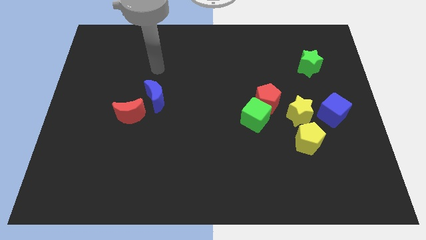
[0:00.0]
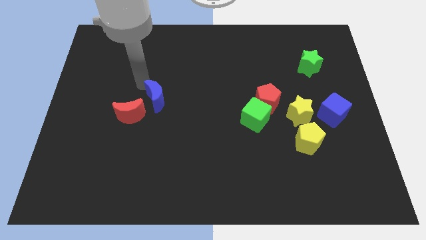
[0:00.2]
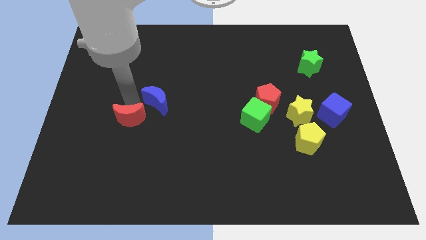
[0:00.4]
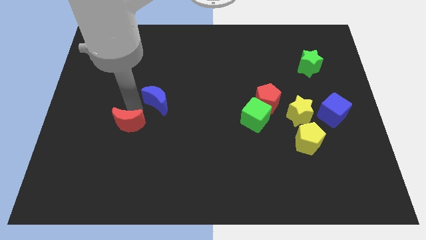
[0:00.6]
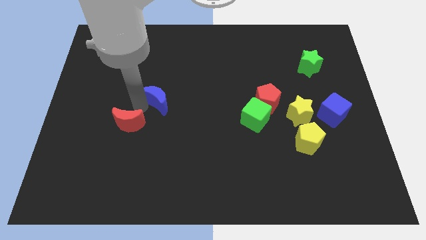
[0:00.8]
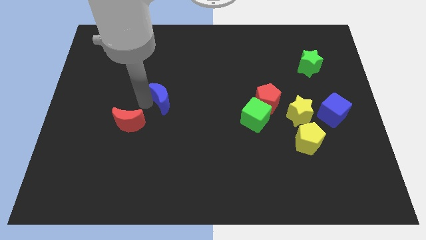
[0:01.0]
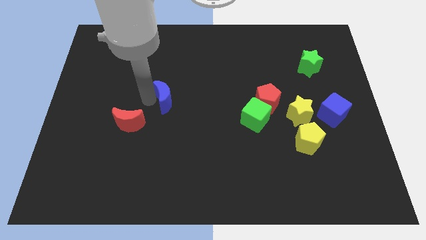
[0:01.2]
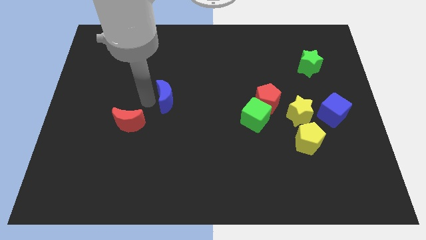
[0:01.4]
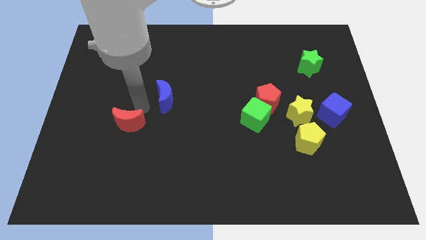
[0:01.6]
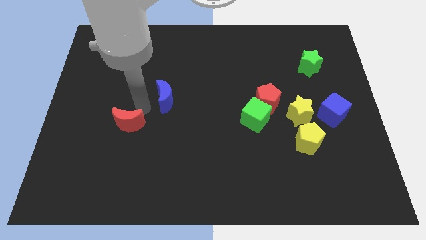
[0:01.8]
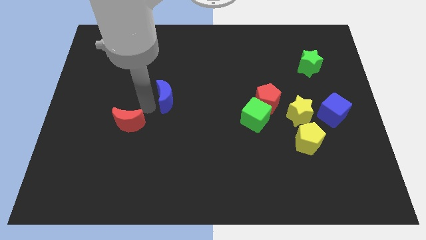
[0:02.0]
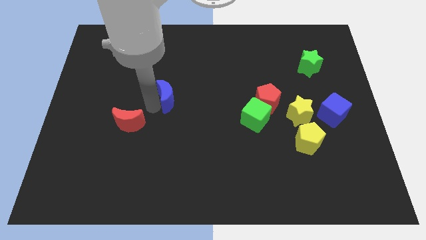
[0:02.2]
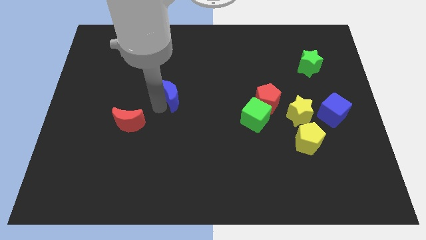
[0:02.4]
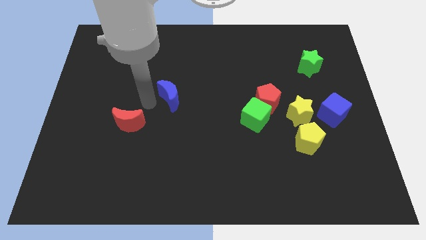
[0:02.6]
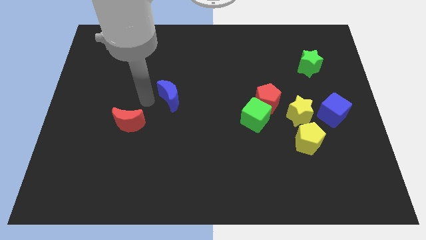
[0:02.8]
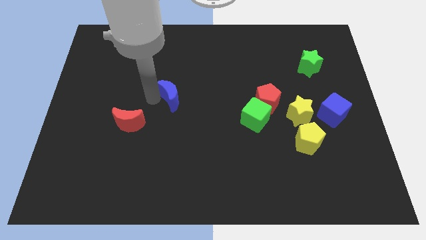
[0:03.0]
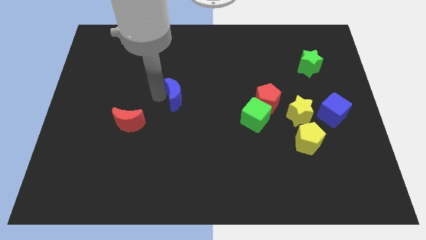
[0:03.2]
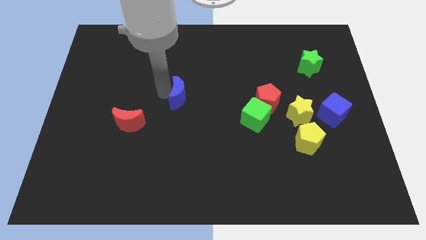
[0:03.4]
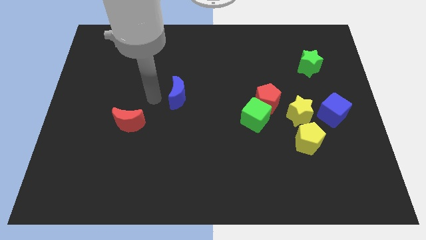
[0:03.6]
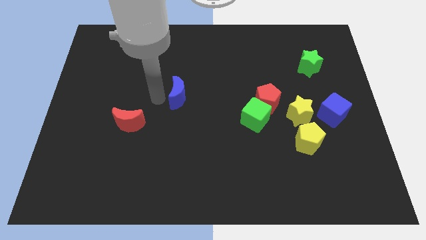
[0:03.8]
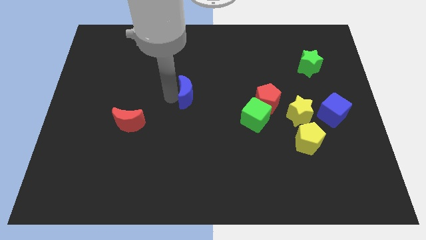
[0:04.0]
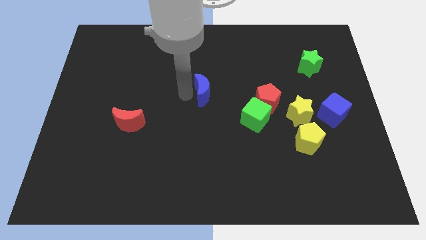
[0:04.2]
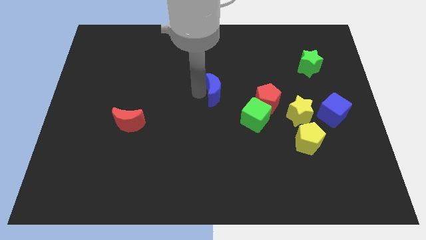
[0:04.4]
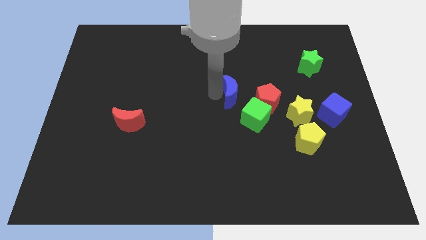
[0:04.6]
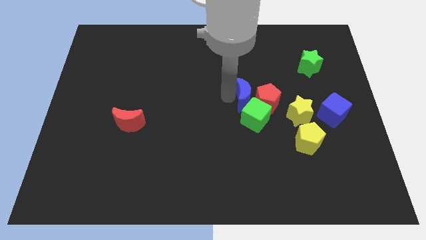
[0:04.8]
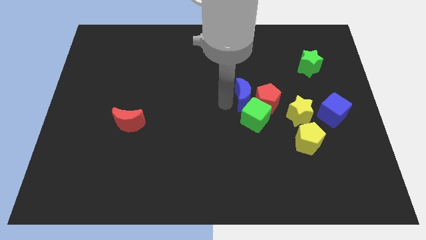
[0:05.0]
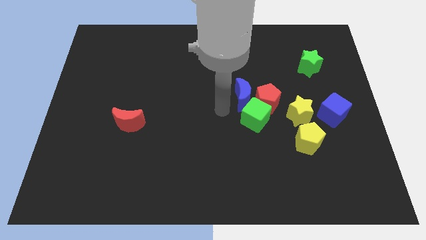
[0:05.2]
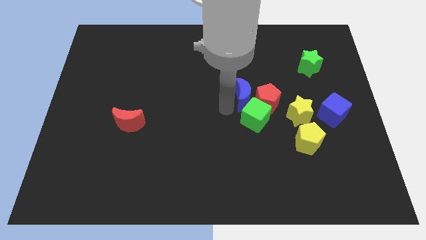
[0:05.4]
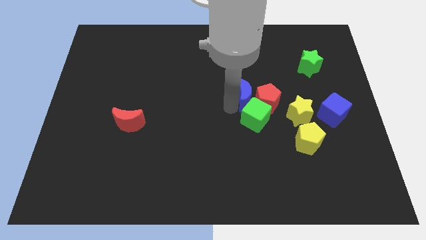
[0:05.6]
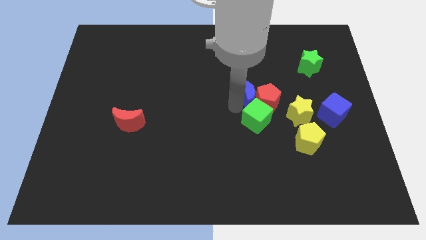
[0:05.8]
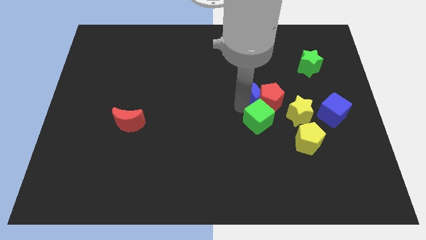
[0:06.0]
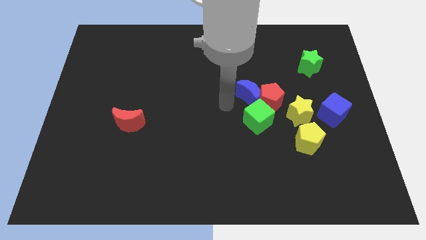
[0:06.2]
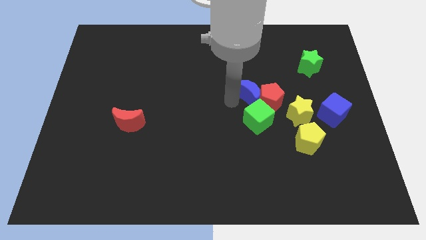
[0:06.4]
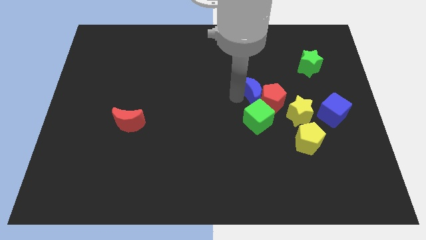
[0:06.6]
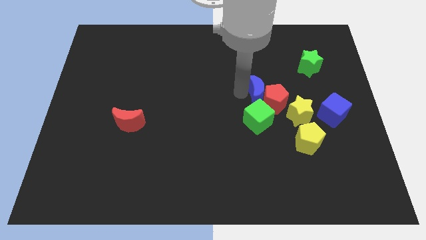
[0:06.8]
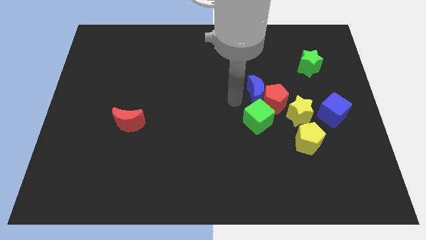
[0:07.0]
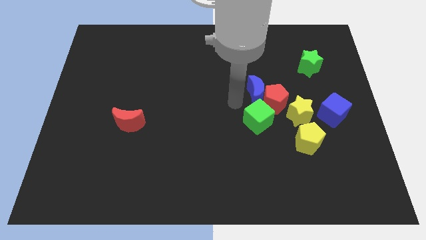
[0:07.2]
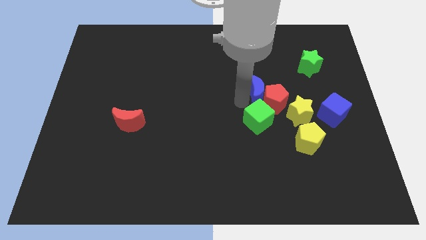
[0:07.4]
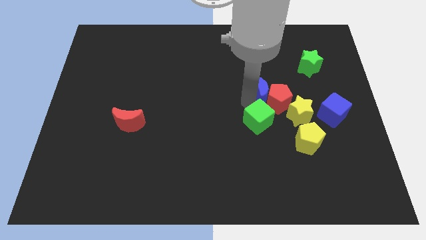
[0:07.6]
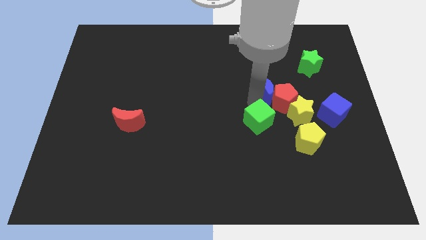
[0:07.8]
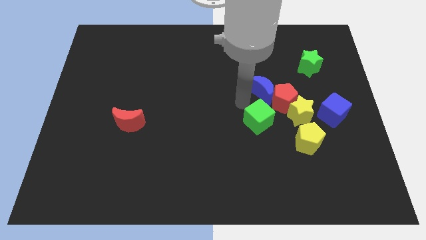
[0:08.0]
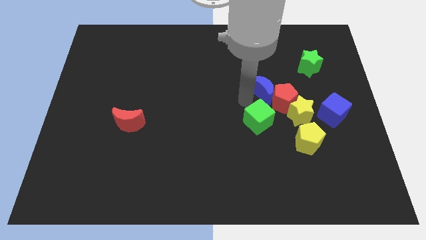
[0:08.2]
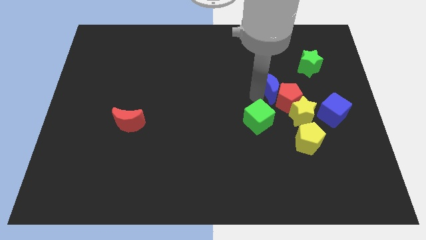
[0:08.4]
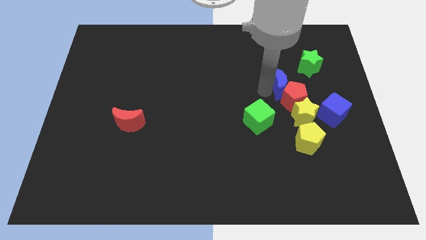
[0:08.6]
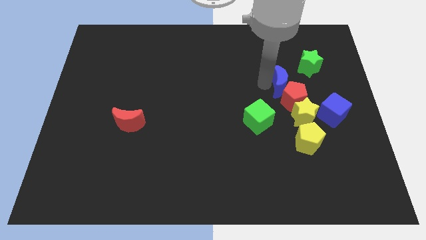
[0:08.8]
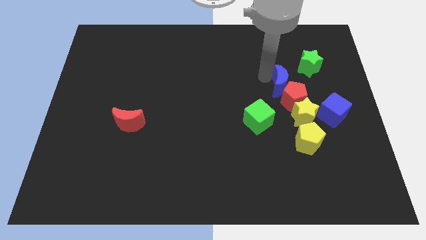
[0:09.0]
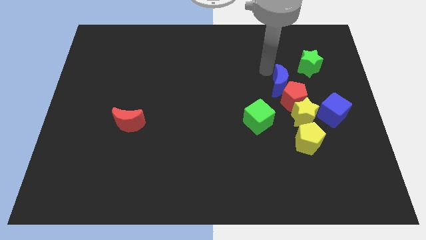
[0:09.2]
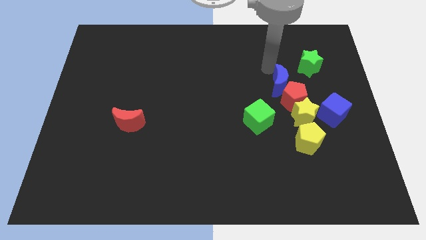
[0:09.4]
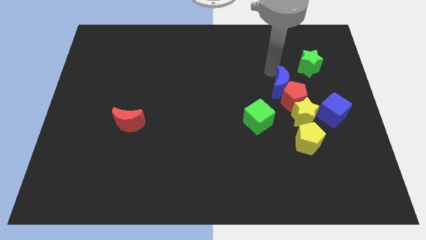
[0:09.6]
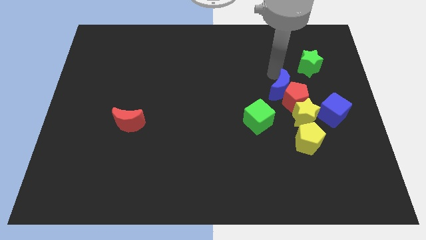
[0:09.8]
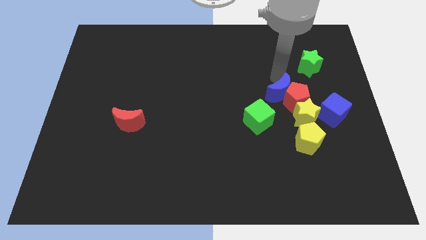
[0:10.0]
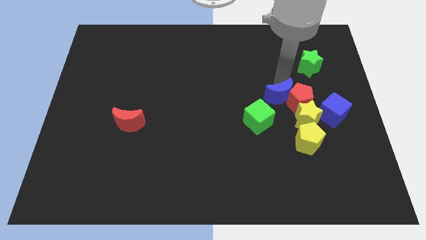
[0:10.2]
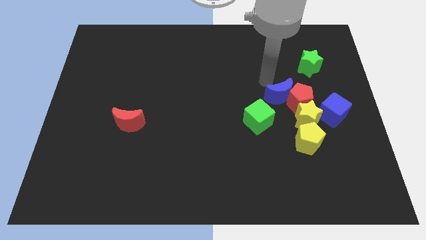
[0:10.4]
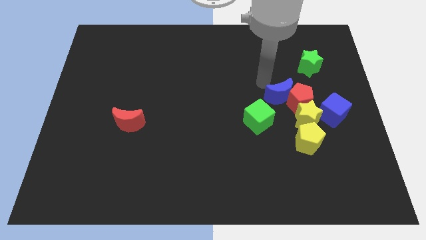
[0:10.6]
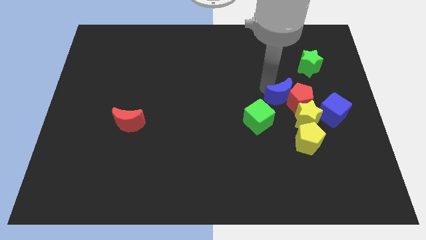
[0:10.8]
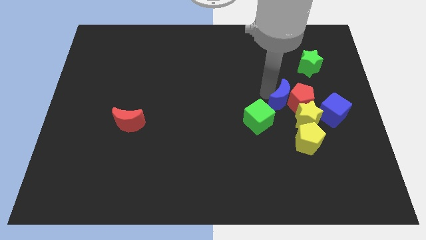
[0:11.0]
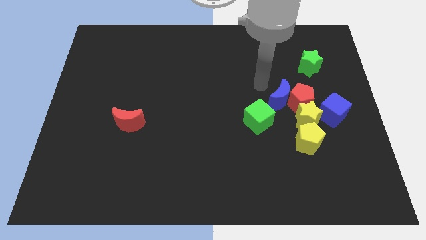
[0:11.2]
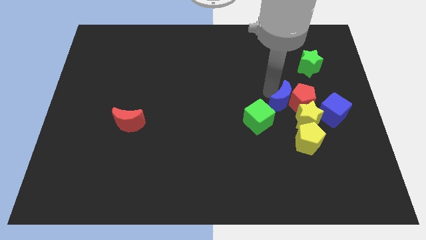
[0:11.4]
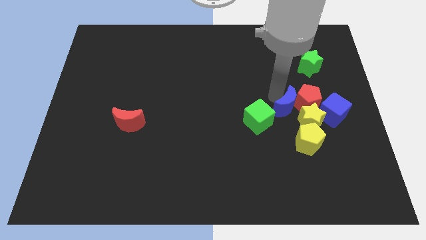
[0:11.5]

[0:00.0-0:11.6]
move the blue moon towards the yellow star

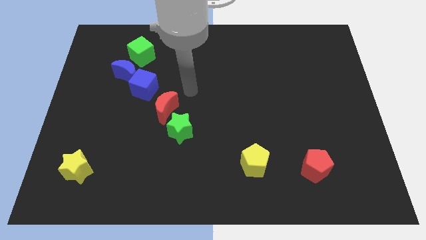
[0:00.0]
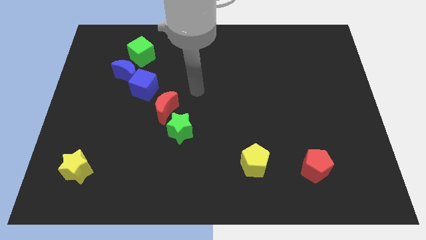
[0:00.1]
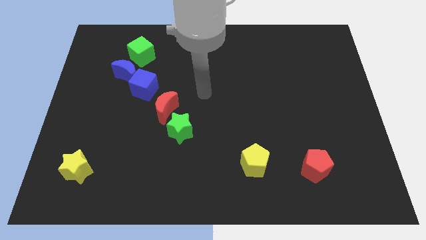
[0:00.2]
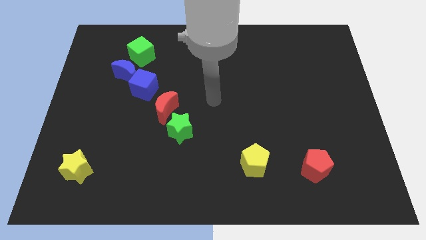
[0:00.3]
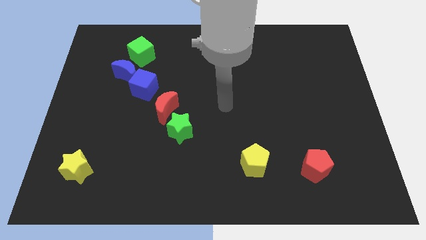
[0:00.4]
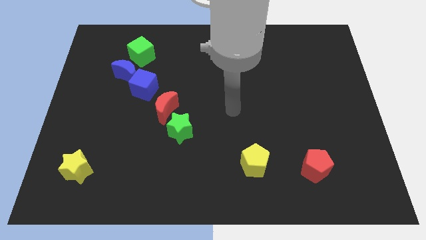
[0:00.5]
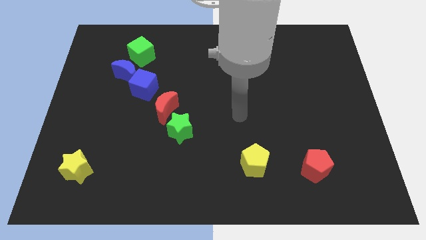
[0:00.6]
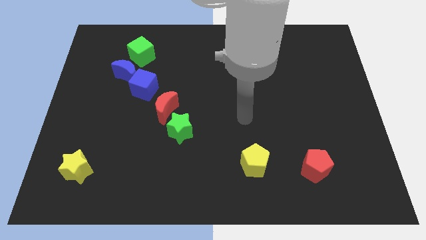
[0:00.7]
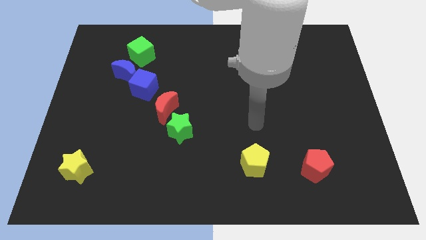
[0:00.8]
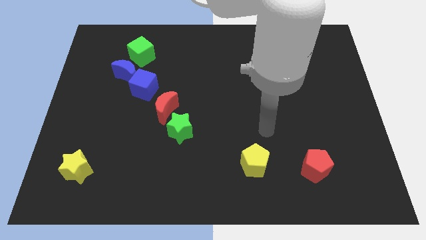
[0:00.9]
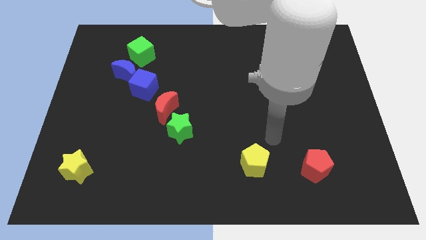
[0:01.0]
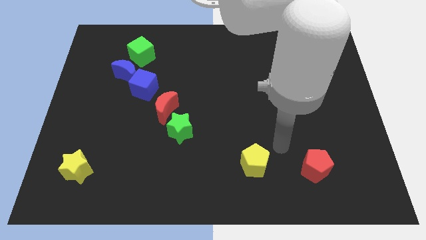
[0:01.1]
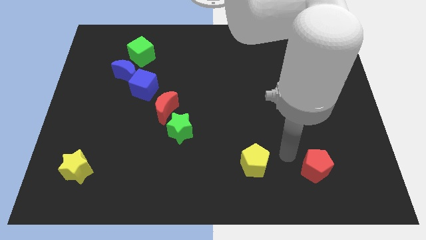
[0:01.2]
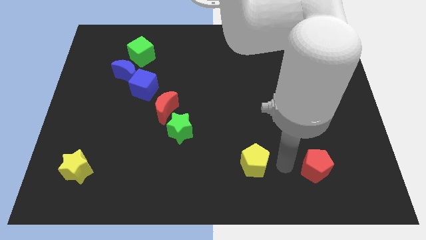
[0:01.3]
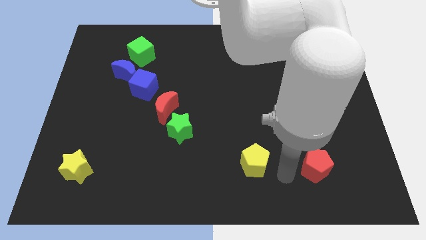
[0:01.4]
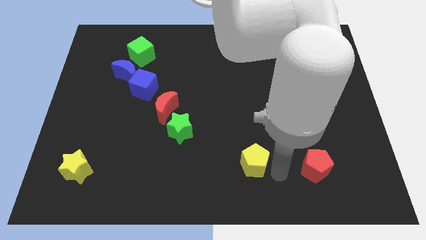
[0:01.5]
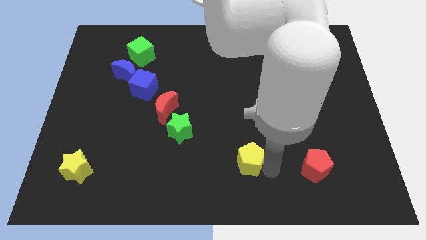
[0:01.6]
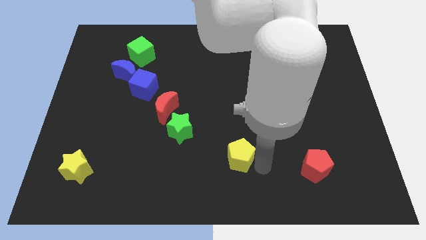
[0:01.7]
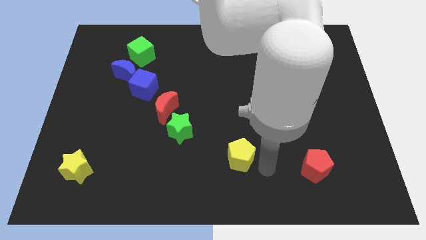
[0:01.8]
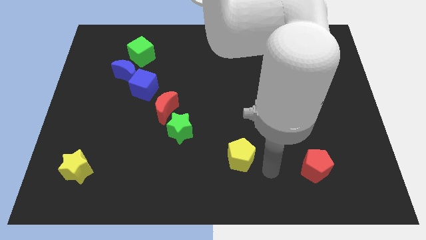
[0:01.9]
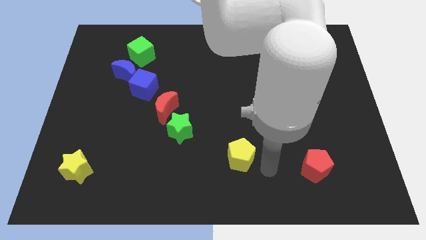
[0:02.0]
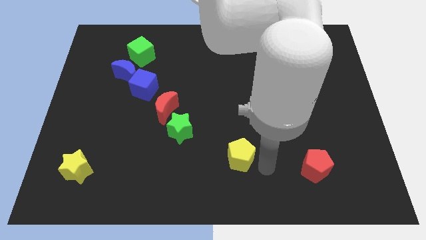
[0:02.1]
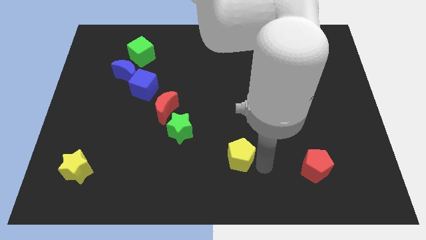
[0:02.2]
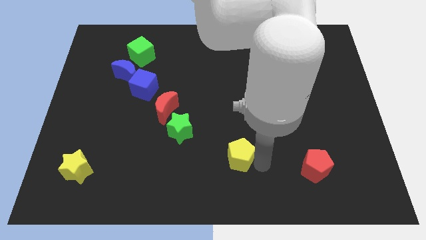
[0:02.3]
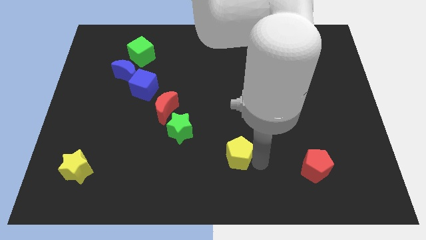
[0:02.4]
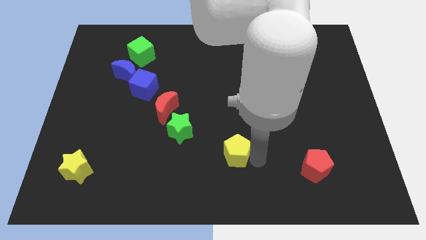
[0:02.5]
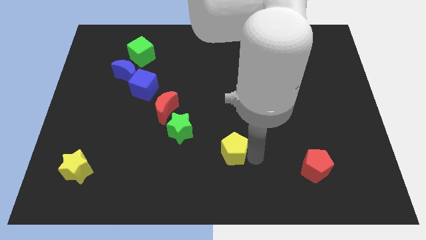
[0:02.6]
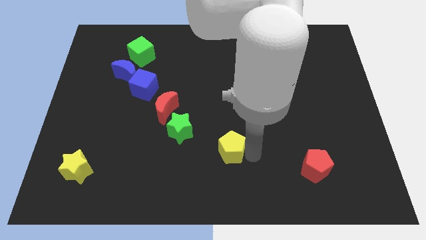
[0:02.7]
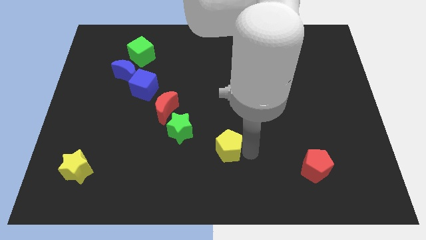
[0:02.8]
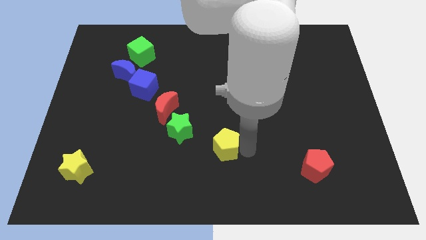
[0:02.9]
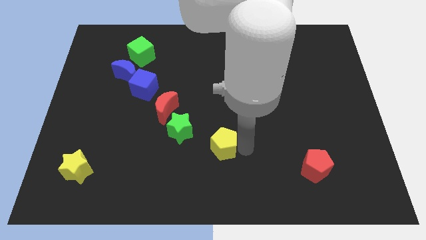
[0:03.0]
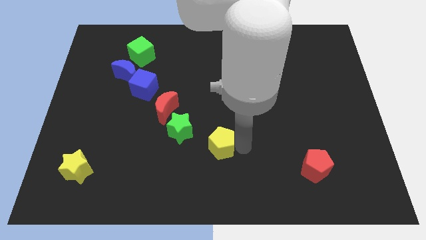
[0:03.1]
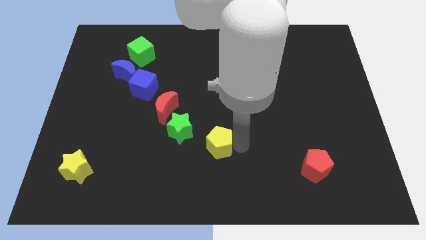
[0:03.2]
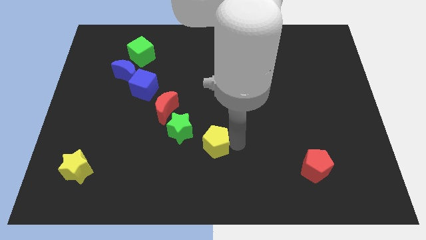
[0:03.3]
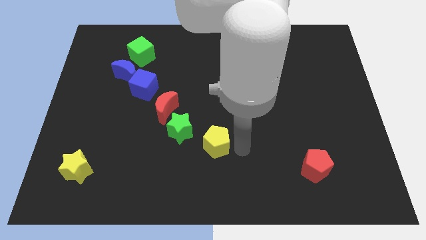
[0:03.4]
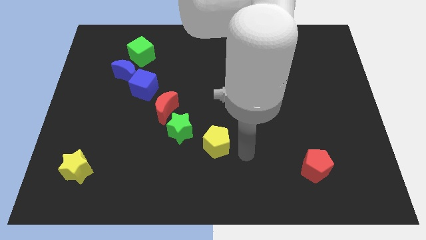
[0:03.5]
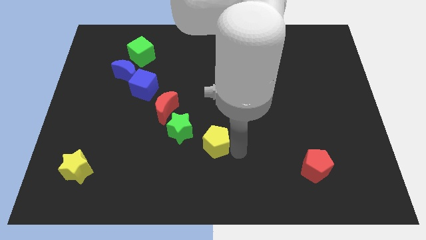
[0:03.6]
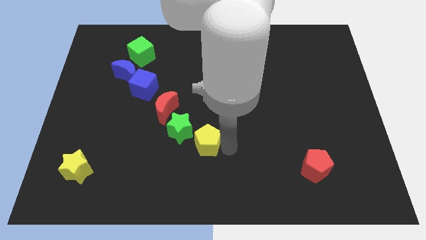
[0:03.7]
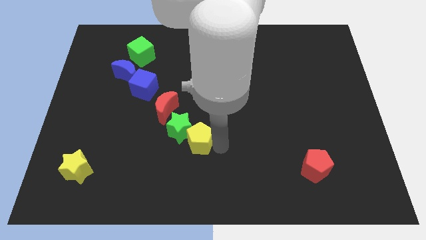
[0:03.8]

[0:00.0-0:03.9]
move the yellow pentagon close to the green star
